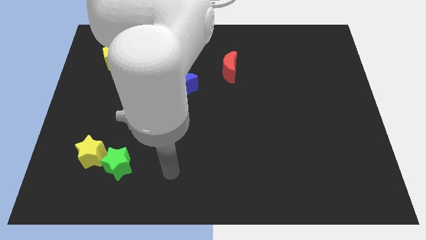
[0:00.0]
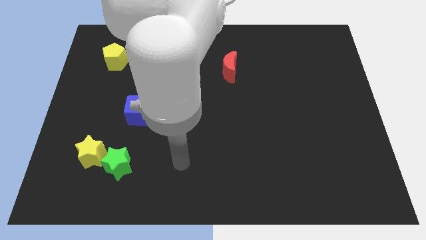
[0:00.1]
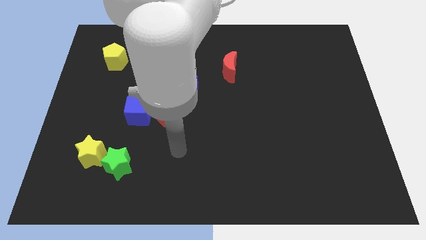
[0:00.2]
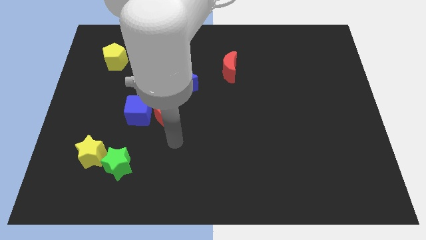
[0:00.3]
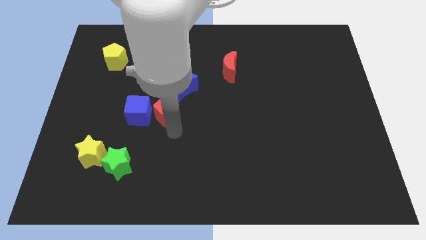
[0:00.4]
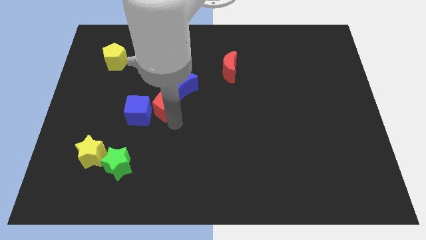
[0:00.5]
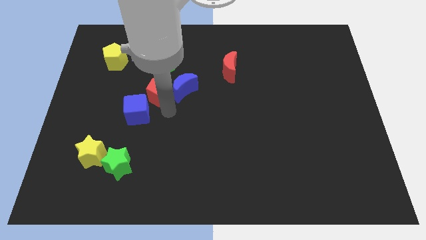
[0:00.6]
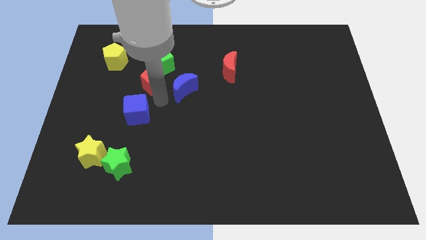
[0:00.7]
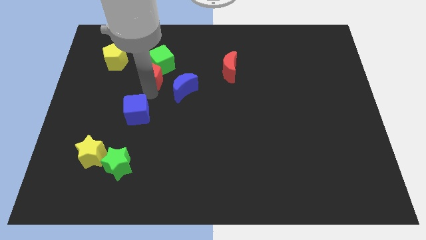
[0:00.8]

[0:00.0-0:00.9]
move the blue cube away from the red pentagon

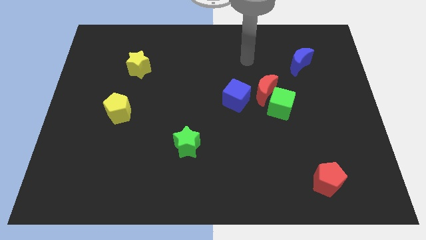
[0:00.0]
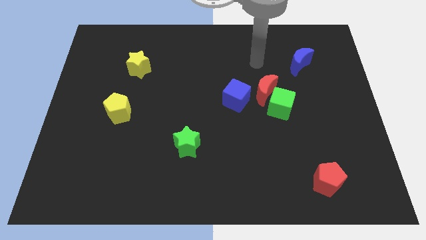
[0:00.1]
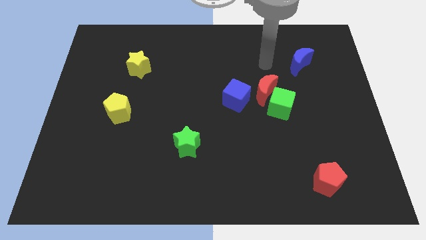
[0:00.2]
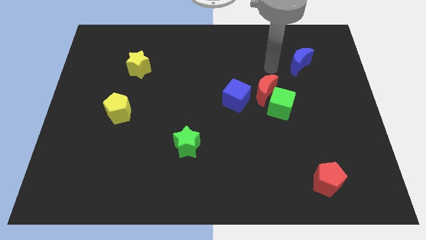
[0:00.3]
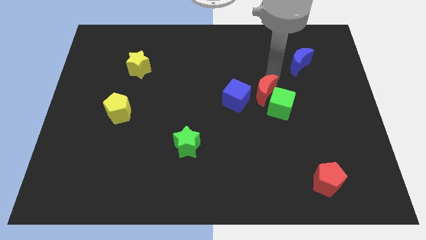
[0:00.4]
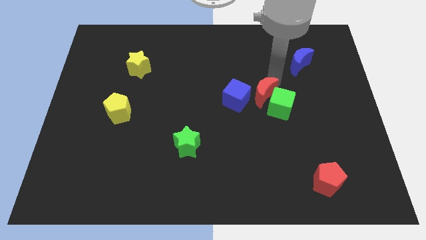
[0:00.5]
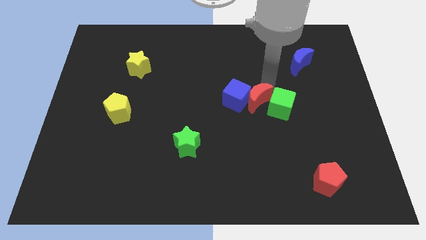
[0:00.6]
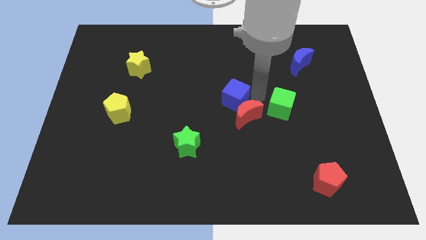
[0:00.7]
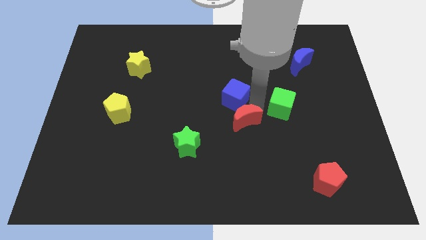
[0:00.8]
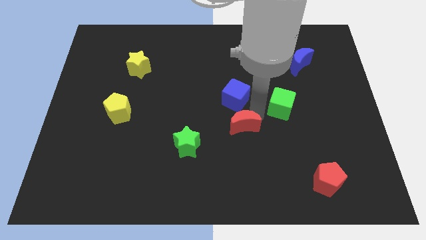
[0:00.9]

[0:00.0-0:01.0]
move the green cube away from the red moon

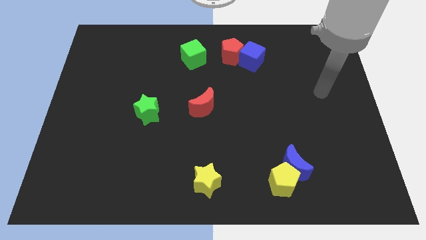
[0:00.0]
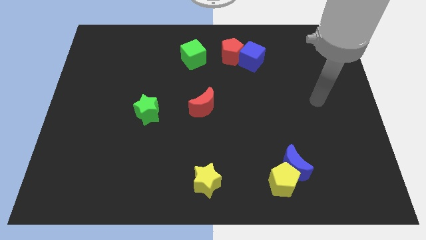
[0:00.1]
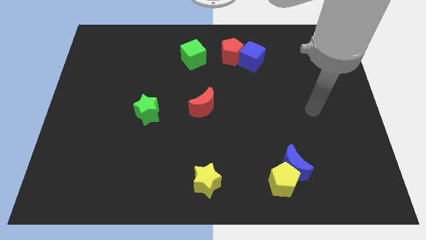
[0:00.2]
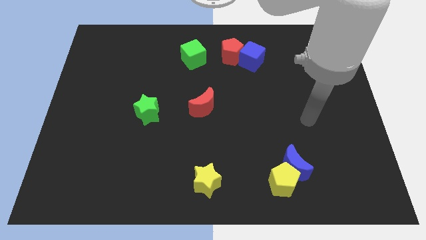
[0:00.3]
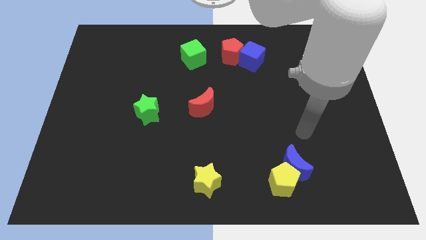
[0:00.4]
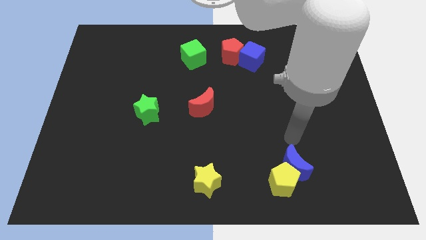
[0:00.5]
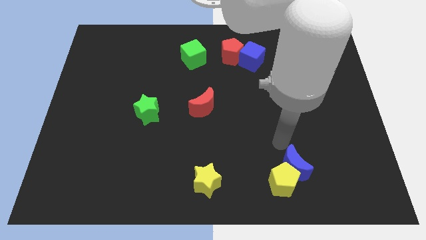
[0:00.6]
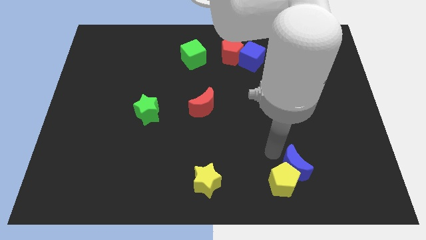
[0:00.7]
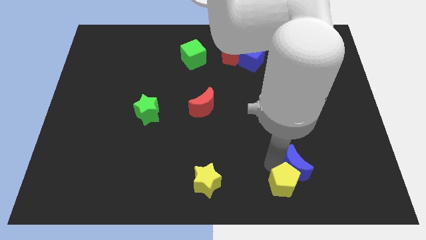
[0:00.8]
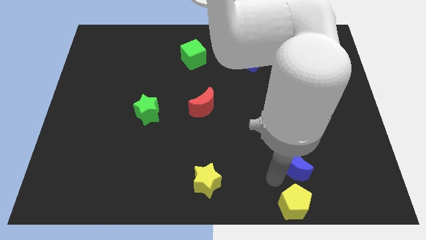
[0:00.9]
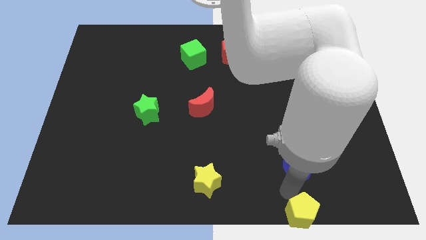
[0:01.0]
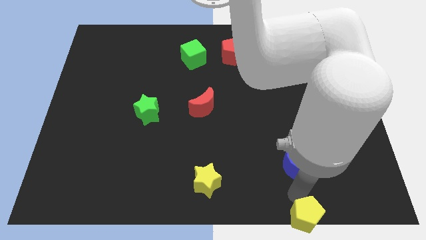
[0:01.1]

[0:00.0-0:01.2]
pull the blue moon apart from the yellow pentagon

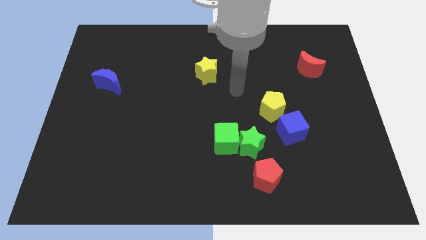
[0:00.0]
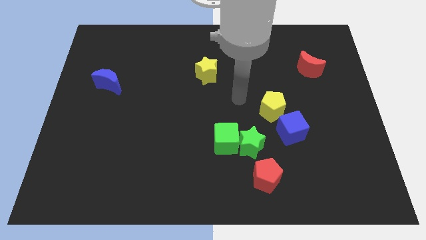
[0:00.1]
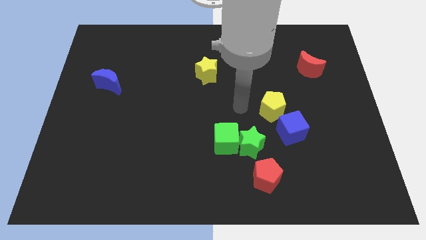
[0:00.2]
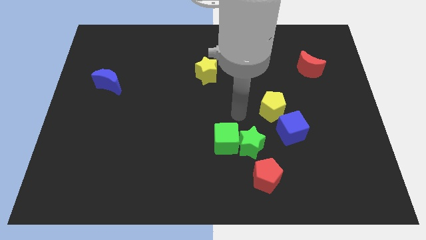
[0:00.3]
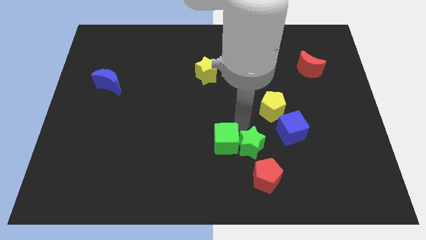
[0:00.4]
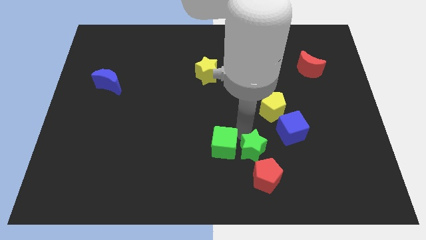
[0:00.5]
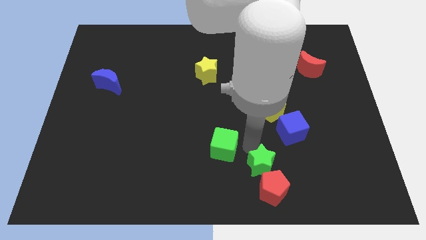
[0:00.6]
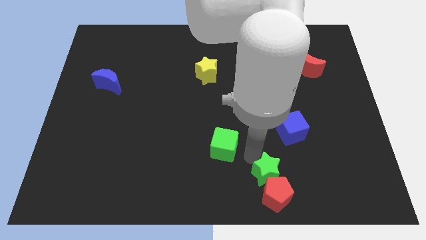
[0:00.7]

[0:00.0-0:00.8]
move the green cube away from the green star

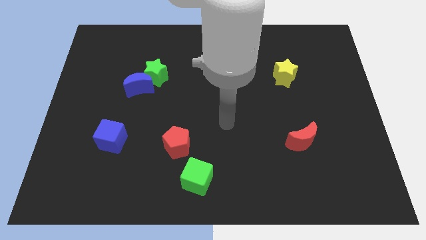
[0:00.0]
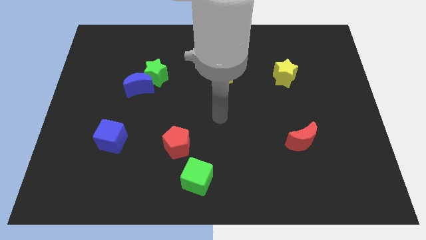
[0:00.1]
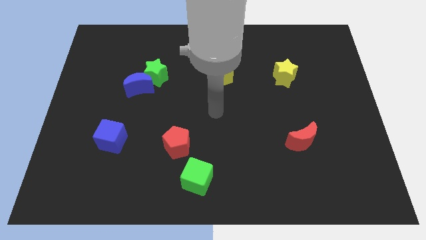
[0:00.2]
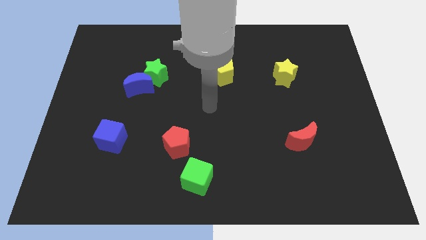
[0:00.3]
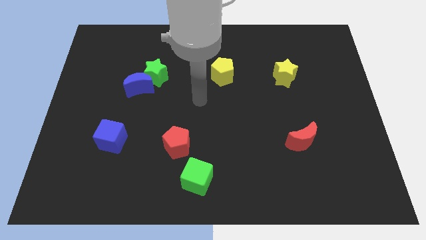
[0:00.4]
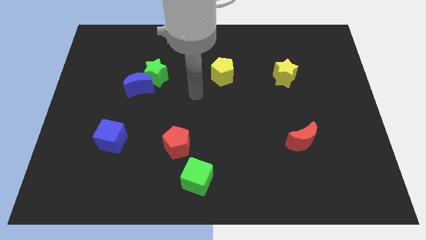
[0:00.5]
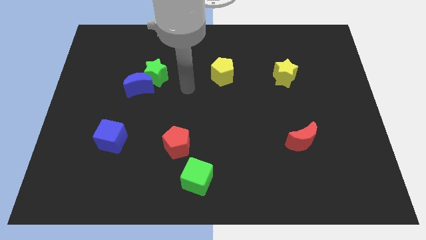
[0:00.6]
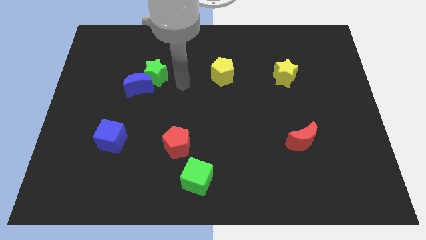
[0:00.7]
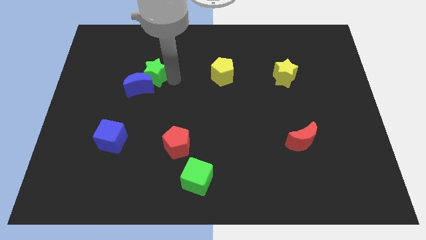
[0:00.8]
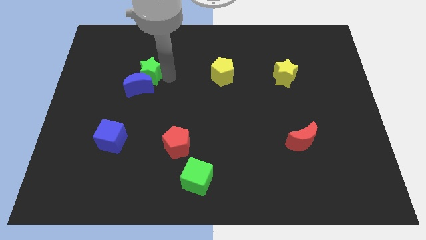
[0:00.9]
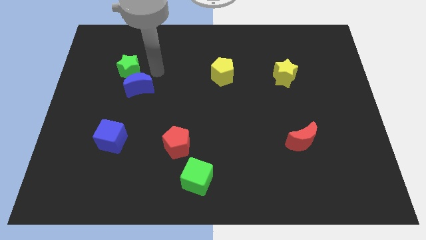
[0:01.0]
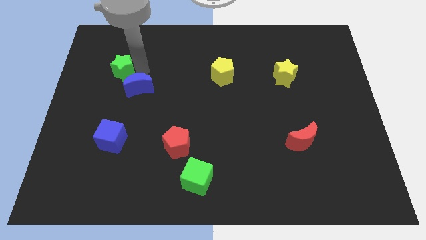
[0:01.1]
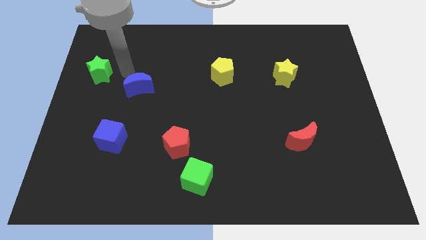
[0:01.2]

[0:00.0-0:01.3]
move the blue moon away from the green star

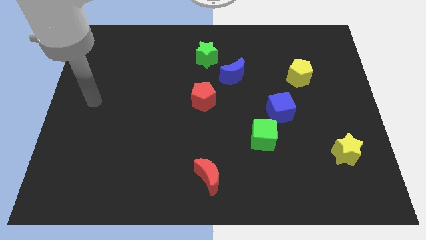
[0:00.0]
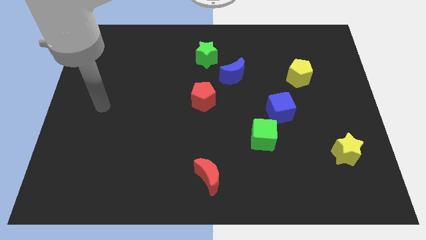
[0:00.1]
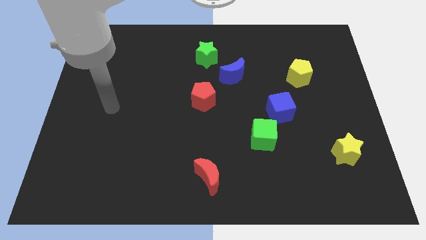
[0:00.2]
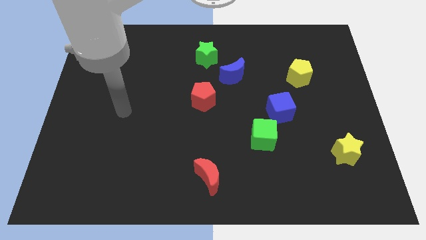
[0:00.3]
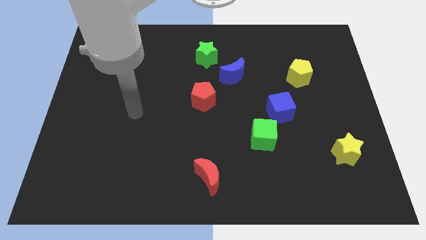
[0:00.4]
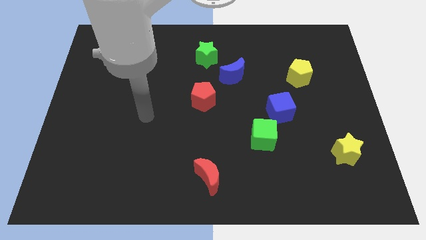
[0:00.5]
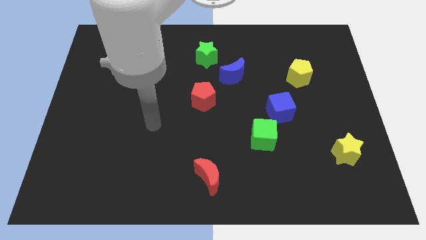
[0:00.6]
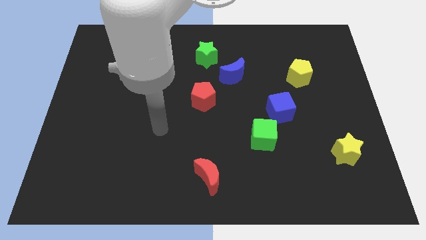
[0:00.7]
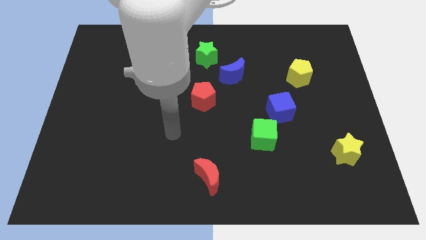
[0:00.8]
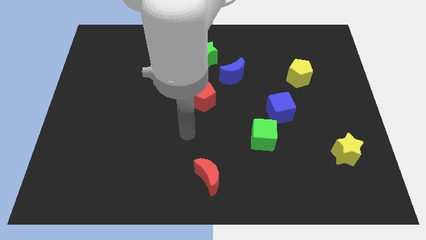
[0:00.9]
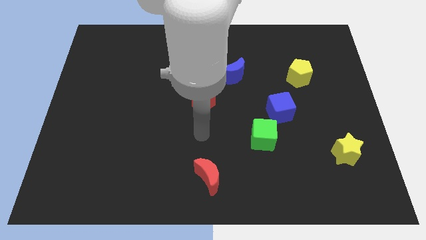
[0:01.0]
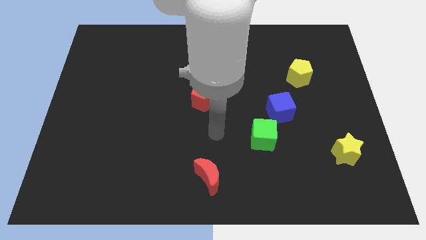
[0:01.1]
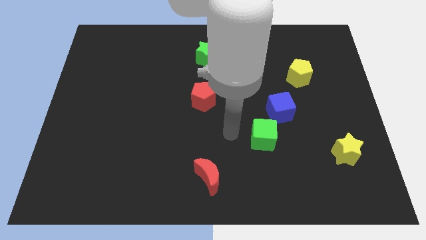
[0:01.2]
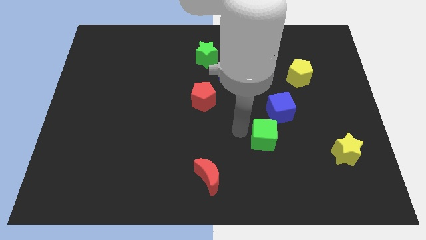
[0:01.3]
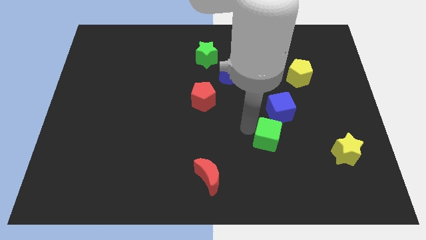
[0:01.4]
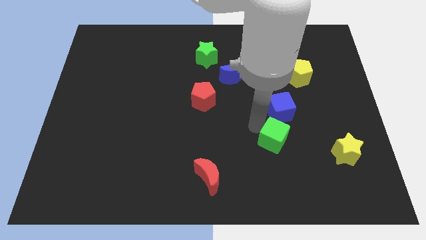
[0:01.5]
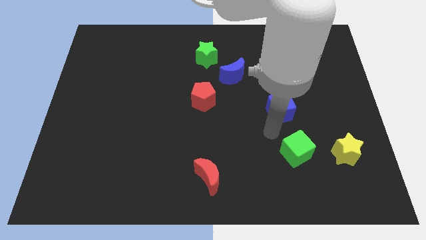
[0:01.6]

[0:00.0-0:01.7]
separate the blue cube from the green cube

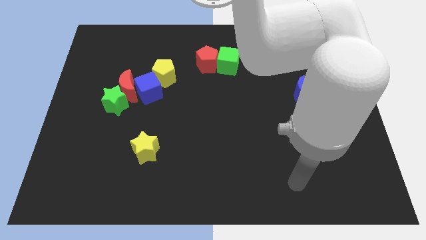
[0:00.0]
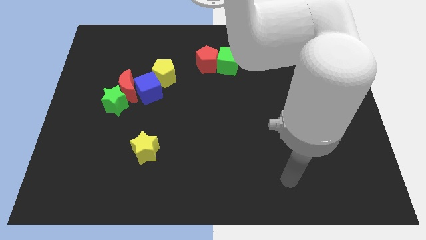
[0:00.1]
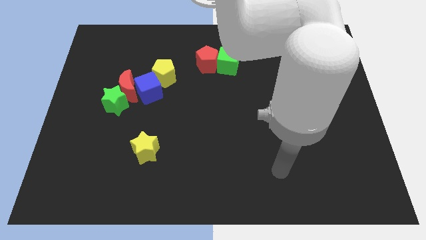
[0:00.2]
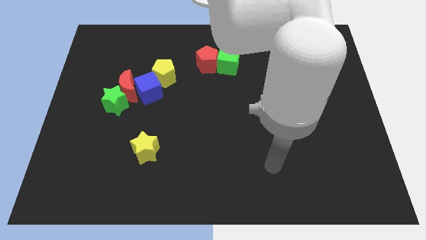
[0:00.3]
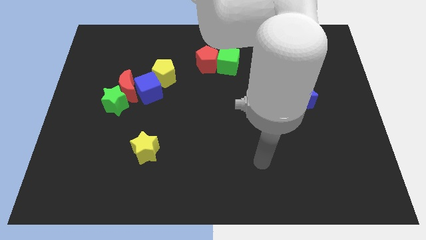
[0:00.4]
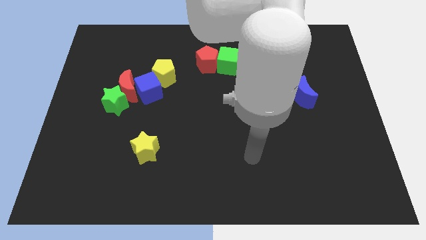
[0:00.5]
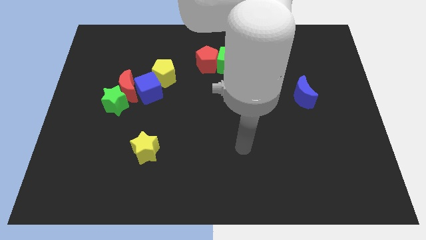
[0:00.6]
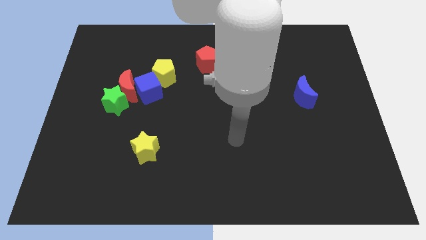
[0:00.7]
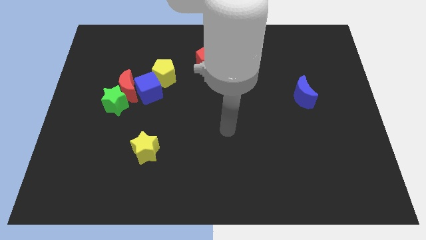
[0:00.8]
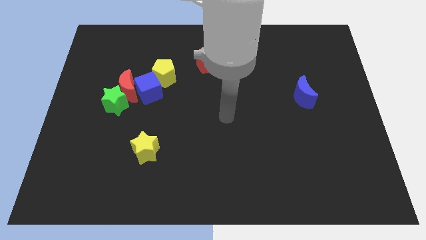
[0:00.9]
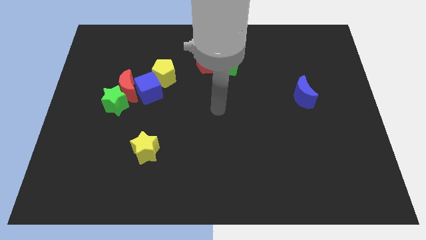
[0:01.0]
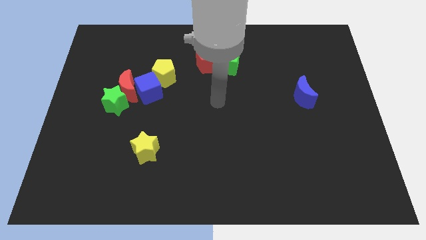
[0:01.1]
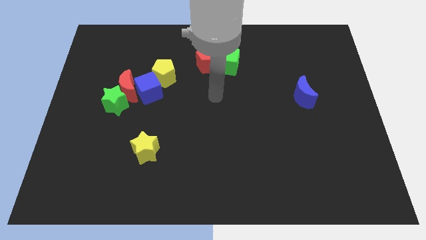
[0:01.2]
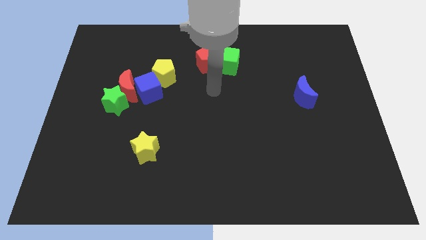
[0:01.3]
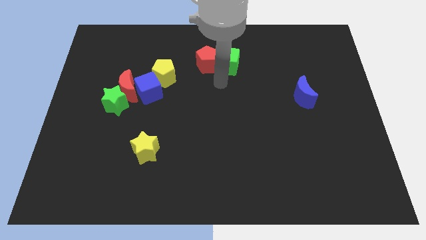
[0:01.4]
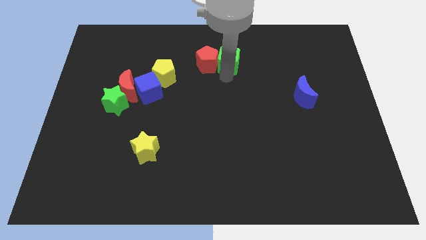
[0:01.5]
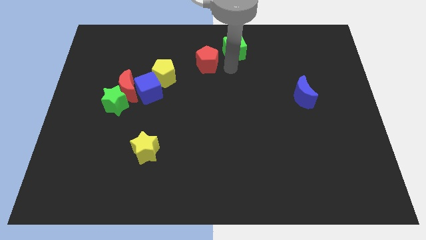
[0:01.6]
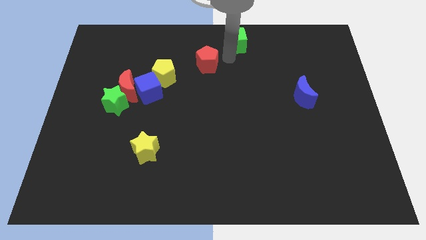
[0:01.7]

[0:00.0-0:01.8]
move the red pentagon away from the green cube

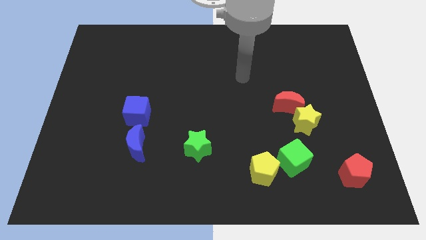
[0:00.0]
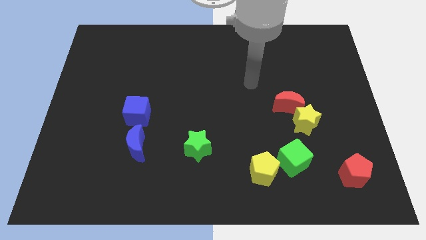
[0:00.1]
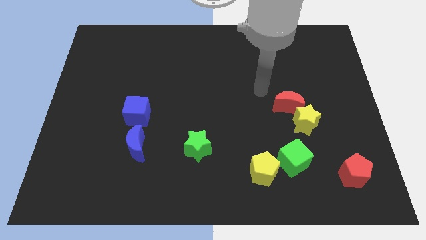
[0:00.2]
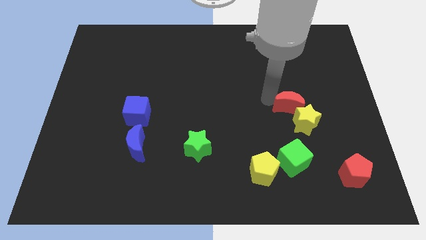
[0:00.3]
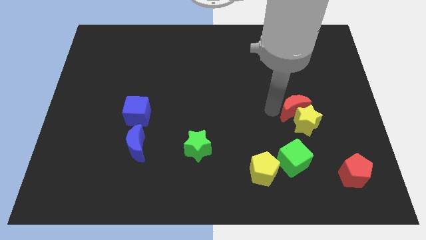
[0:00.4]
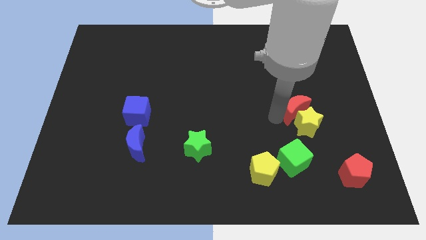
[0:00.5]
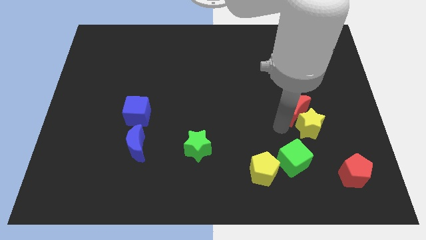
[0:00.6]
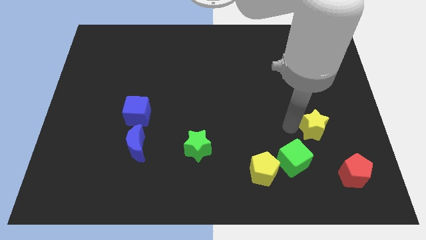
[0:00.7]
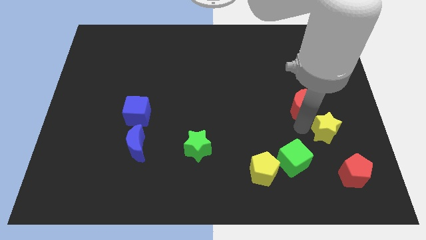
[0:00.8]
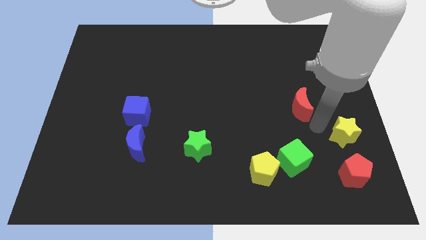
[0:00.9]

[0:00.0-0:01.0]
move the red moon away from the yellow star
